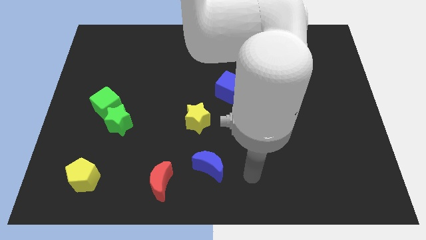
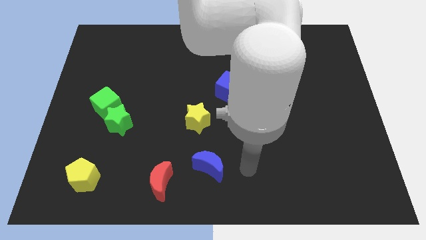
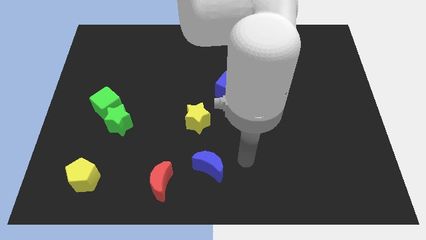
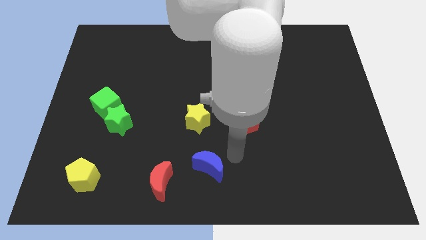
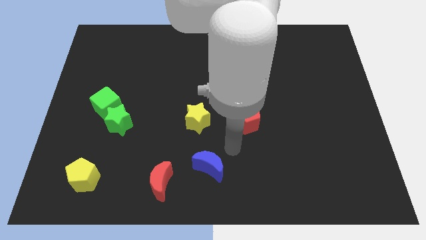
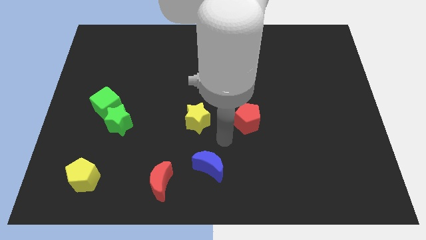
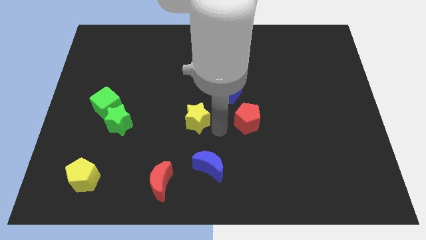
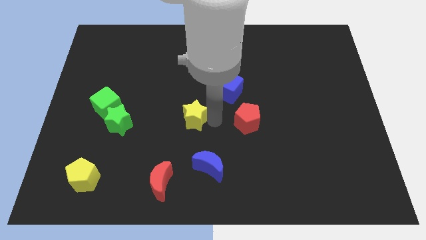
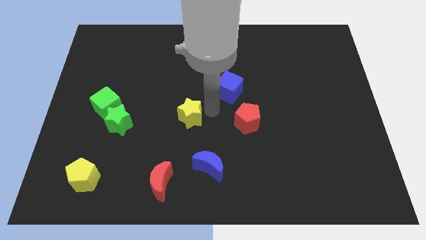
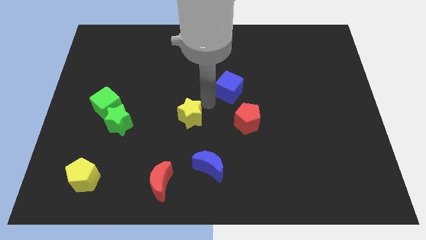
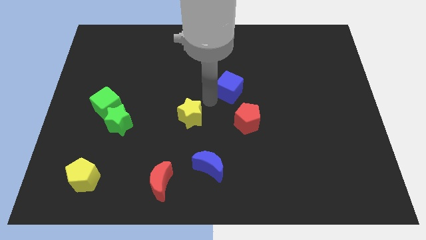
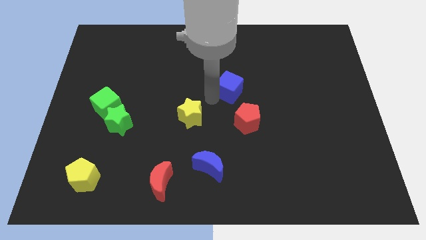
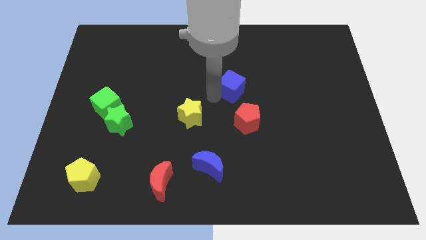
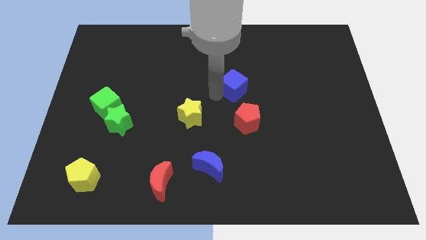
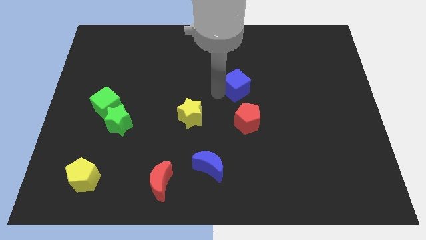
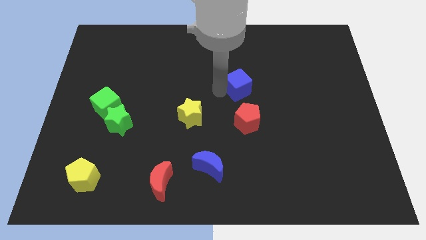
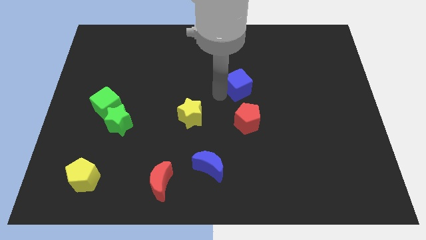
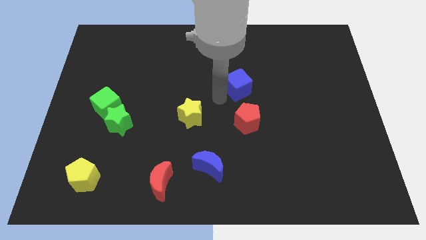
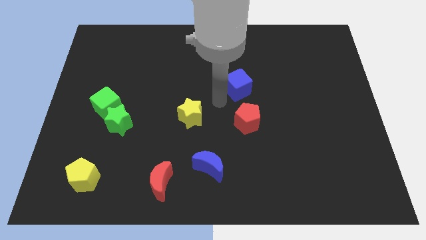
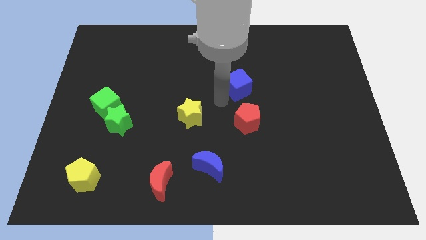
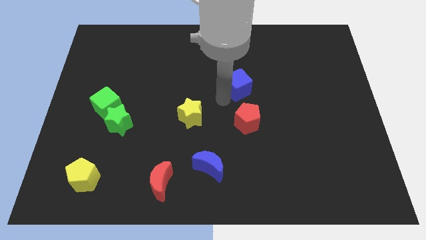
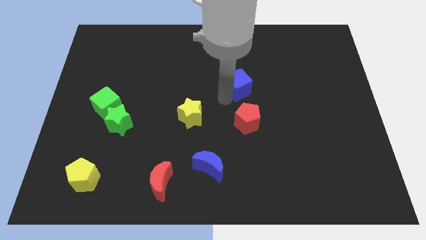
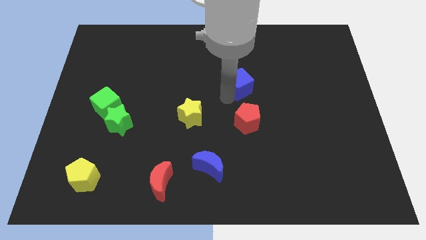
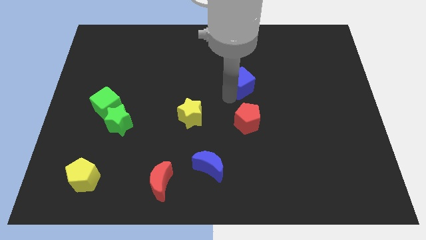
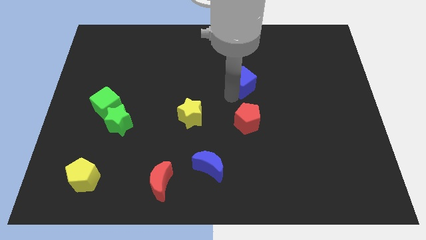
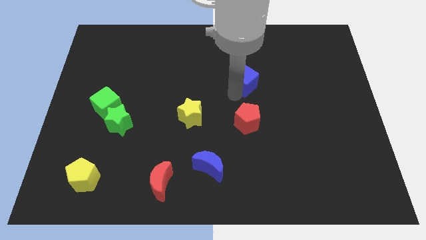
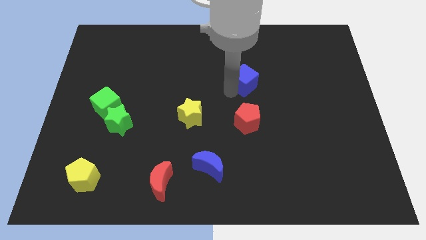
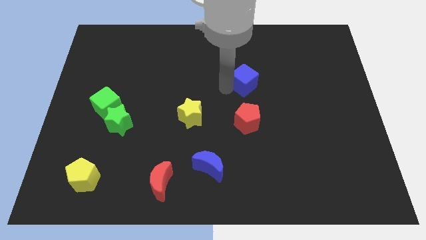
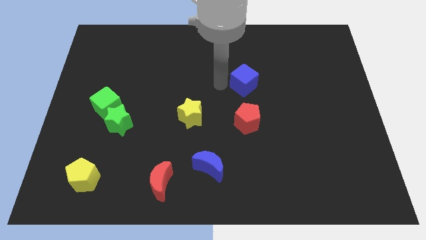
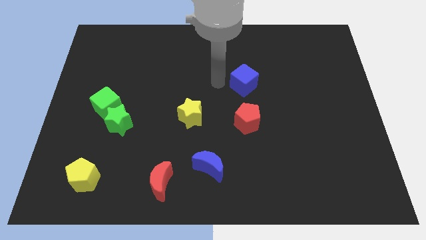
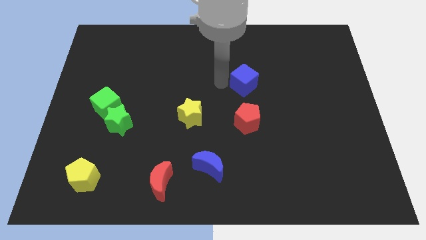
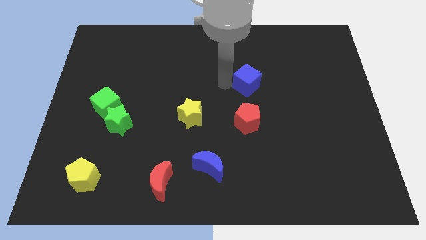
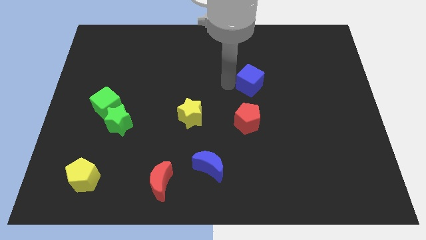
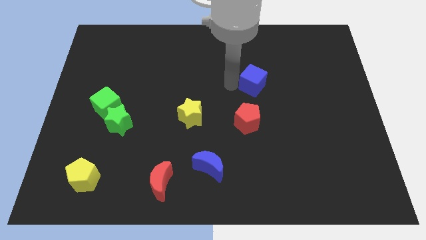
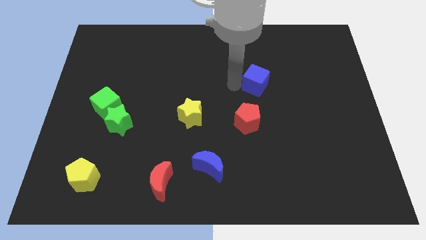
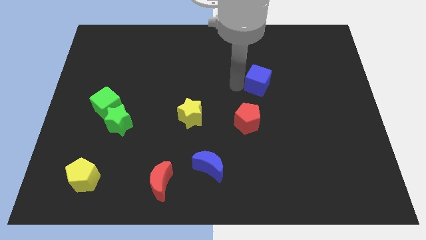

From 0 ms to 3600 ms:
slightly slide the blue cube to the right

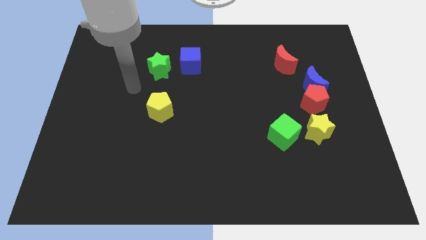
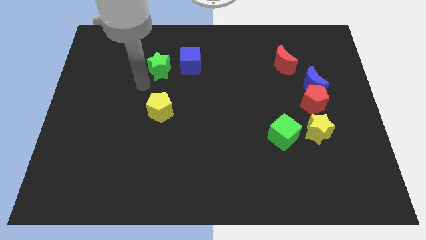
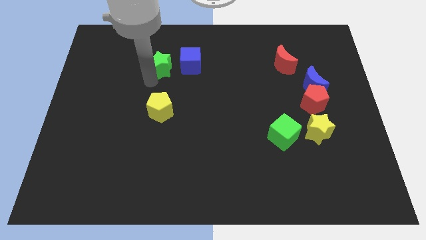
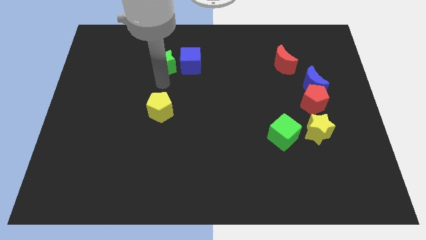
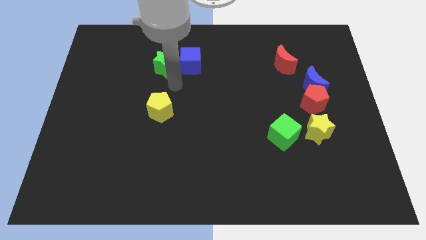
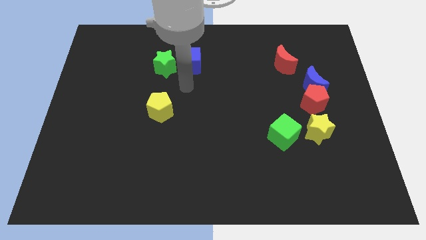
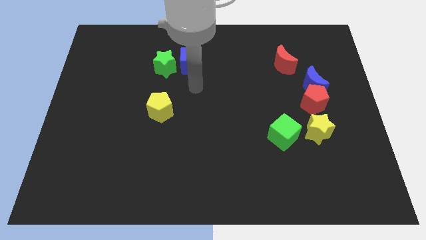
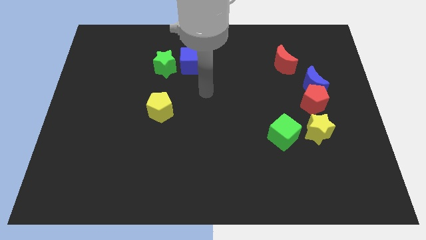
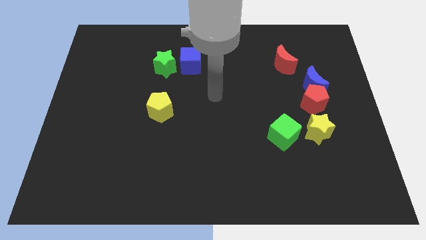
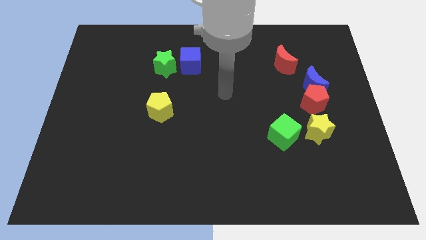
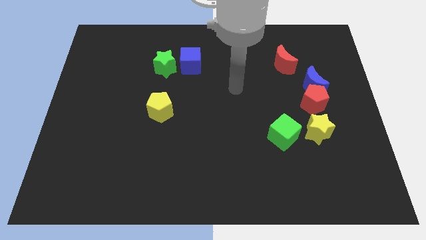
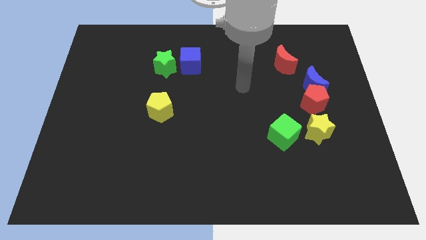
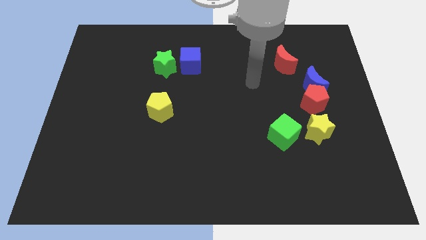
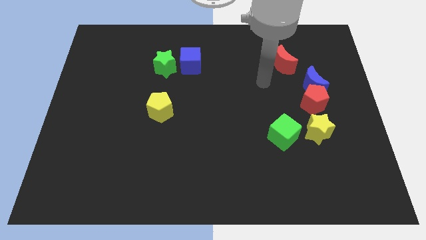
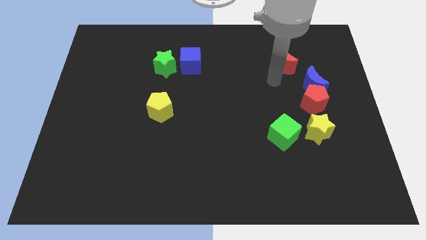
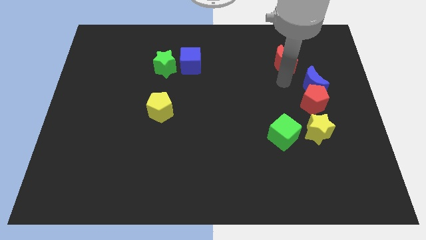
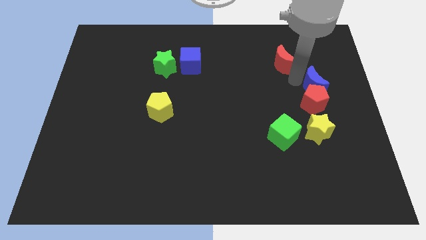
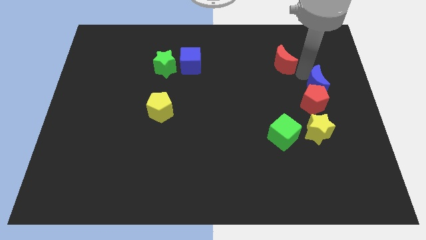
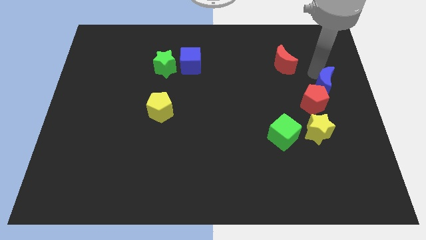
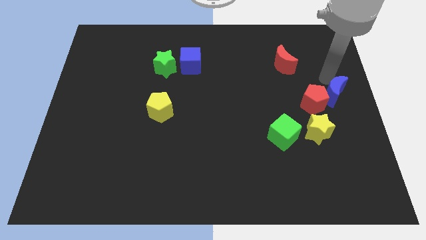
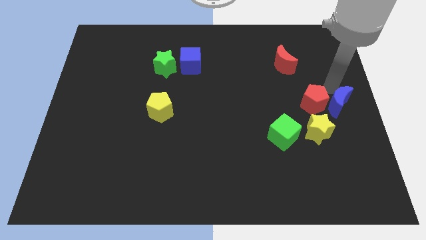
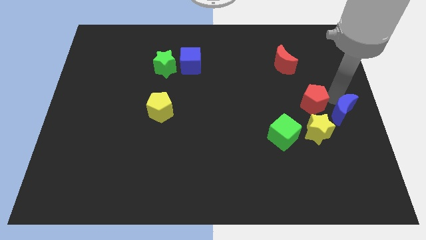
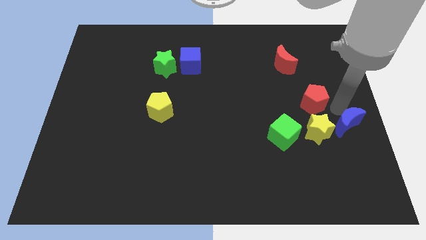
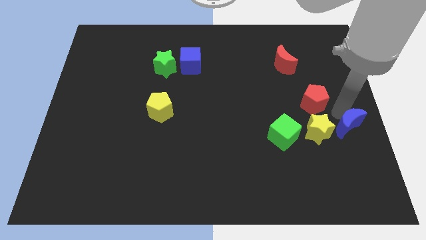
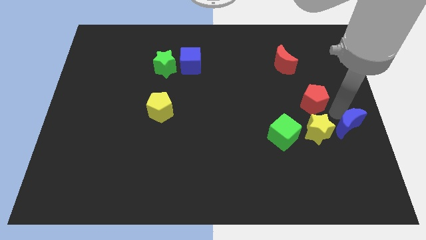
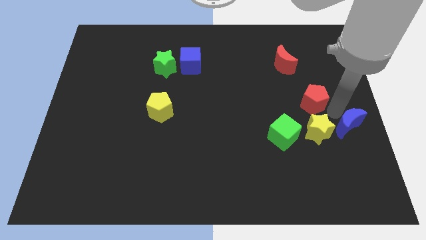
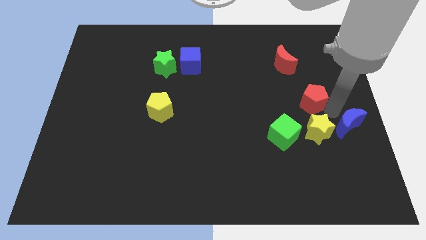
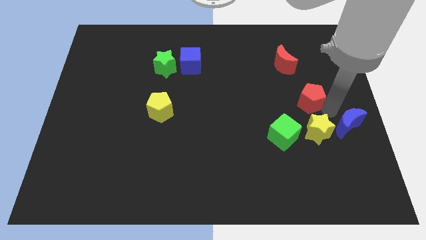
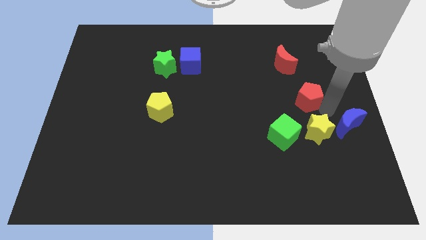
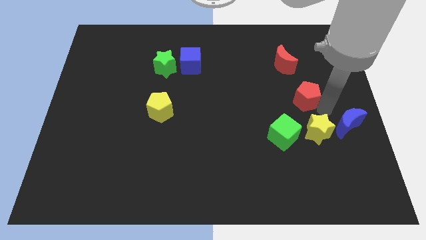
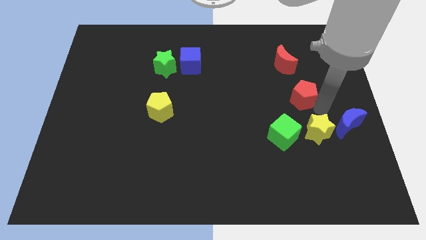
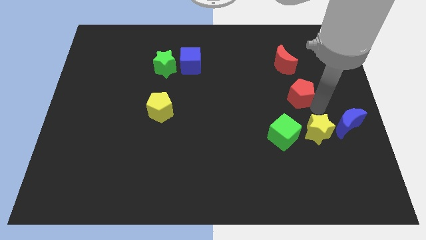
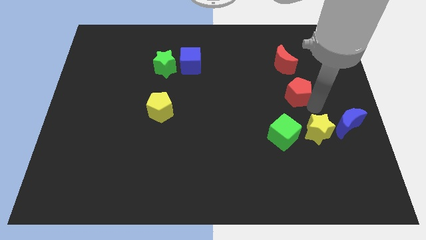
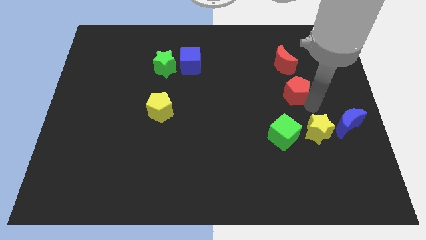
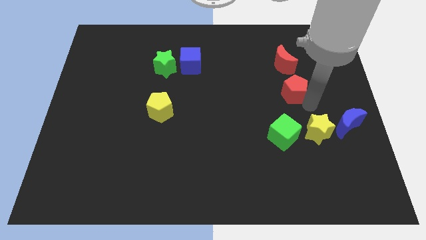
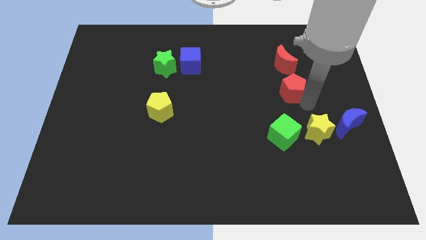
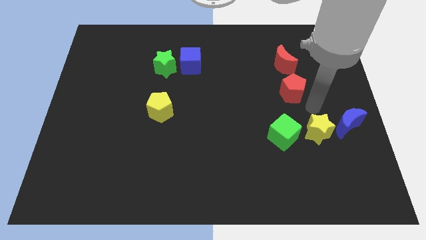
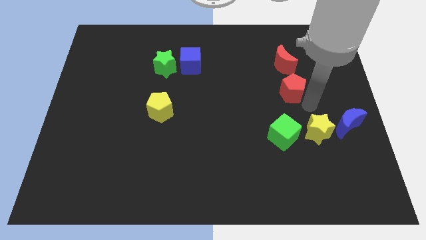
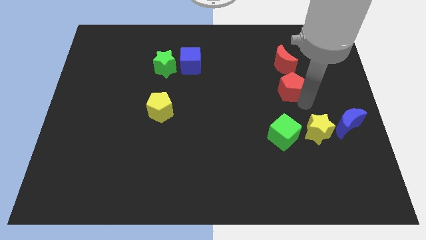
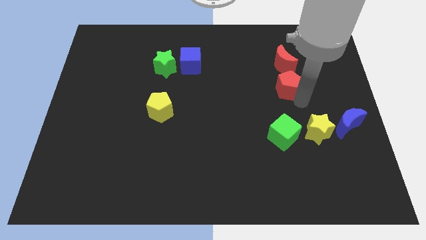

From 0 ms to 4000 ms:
slightly slide the red pentagon diagonally up and left

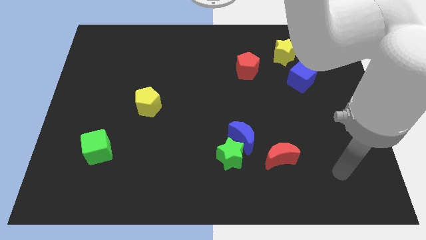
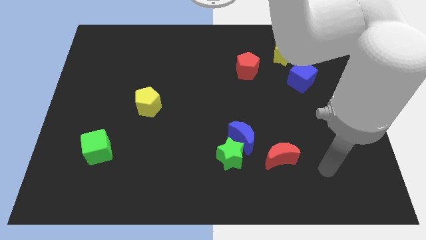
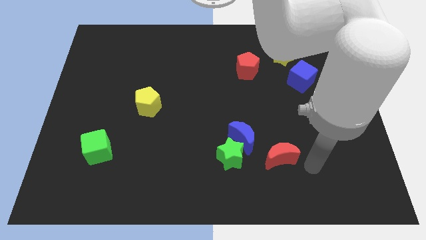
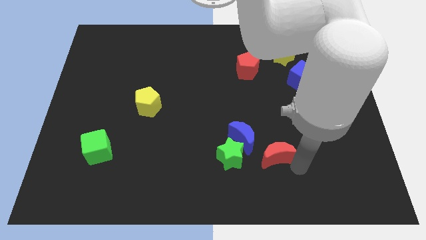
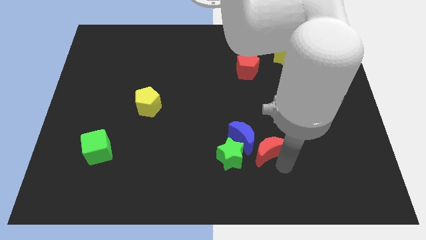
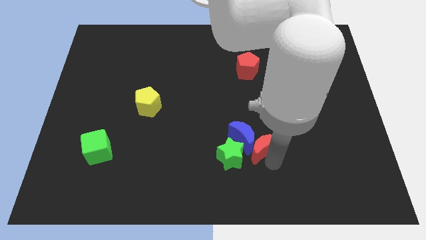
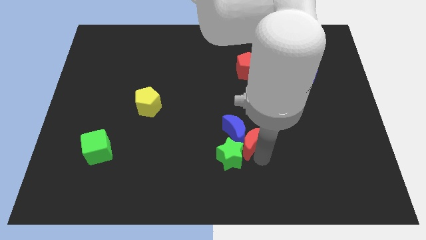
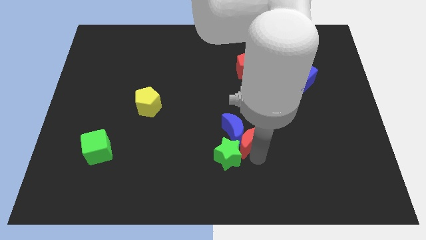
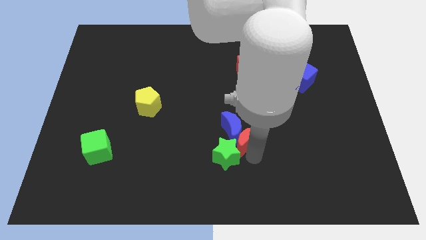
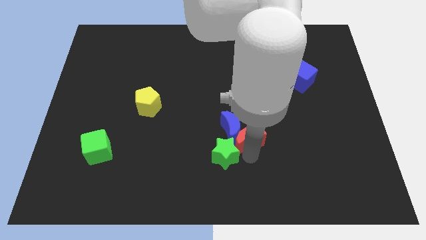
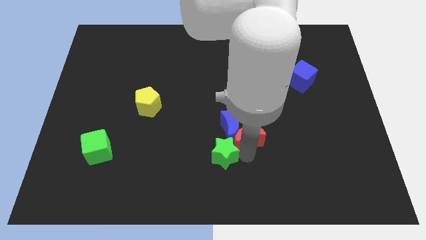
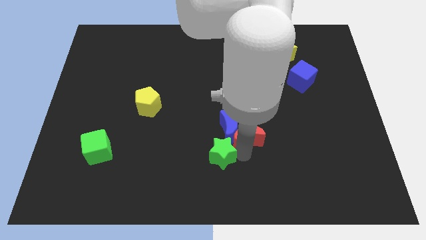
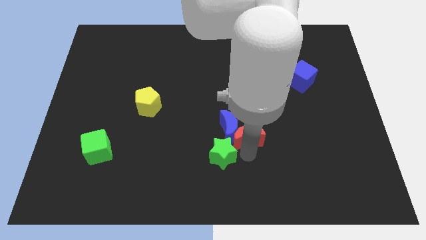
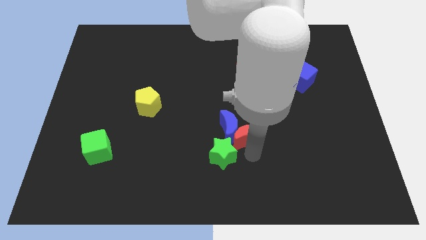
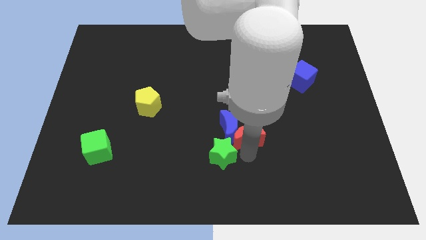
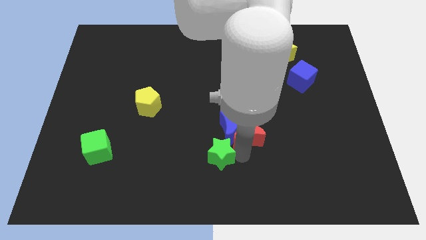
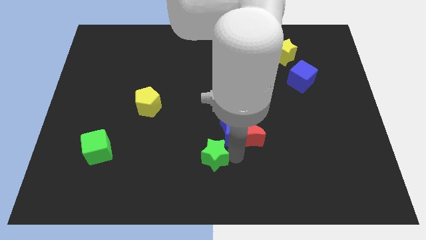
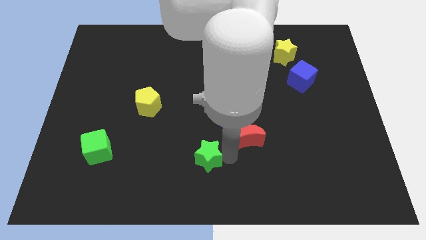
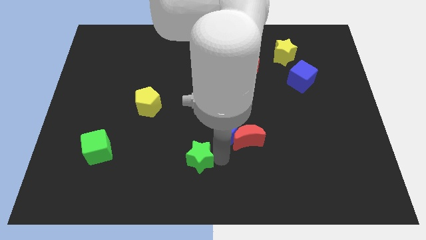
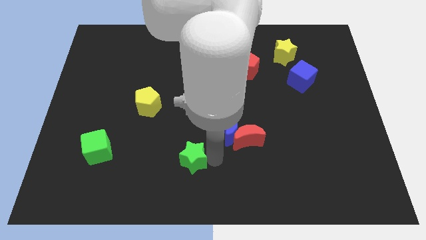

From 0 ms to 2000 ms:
push the green star a bit left
